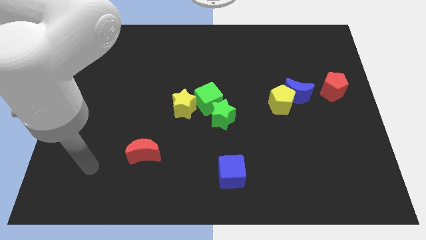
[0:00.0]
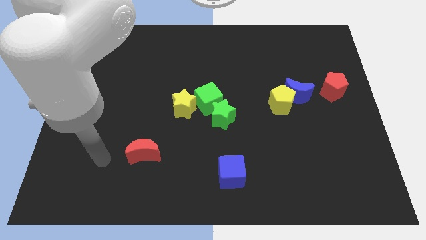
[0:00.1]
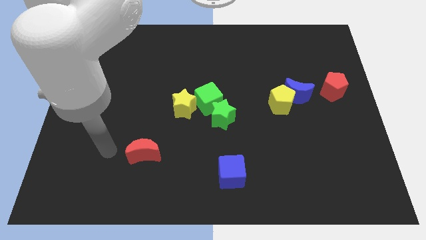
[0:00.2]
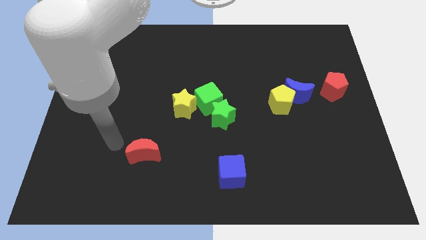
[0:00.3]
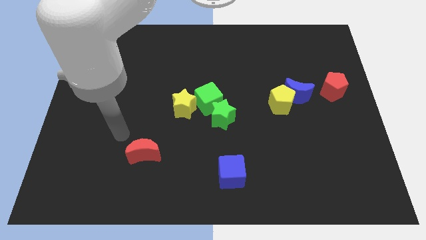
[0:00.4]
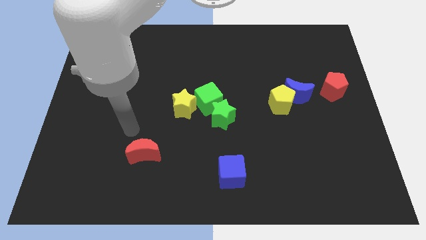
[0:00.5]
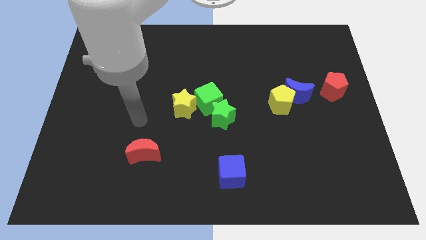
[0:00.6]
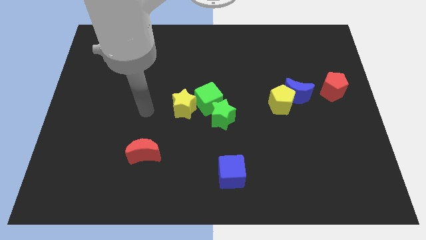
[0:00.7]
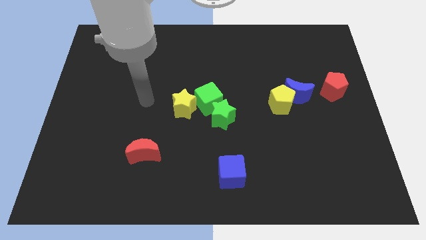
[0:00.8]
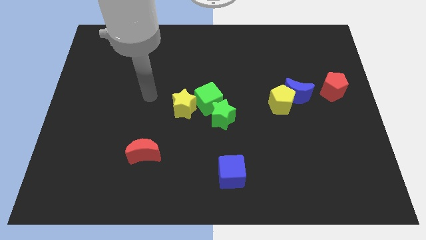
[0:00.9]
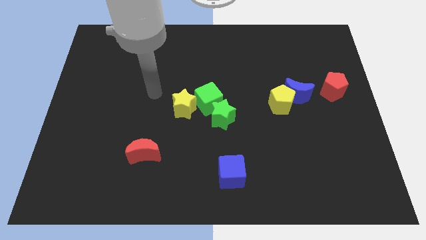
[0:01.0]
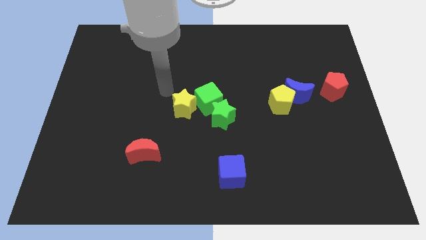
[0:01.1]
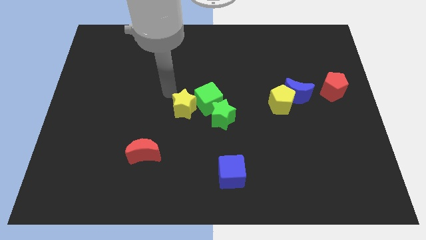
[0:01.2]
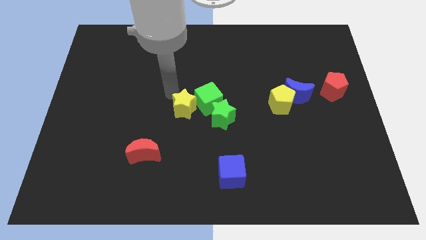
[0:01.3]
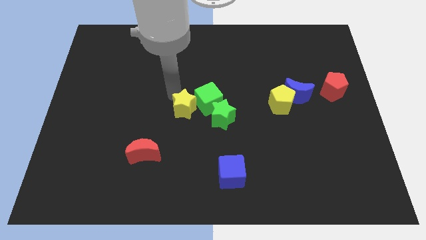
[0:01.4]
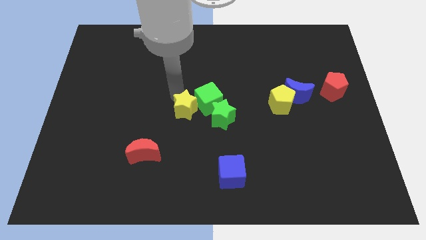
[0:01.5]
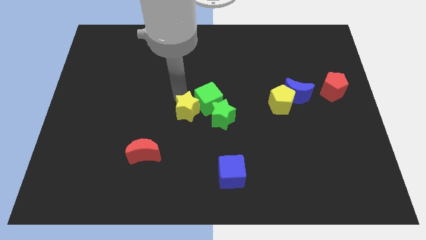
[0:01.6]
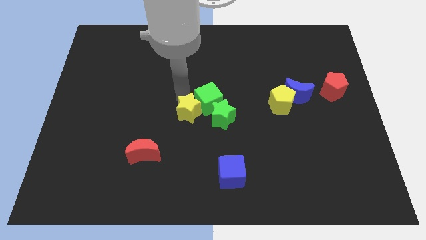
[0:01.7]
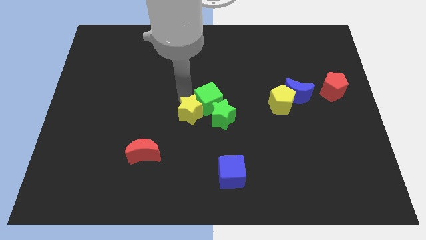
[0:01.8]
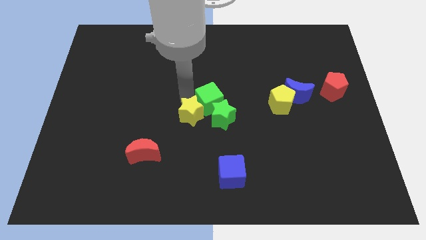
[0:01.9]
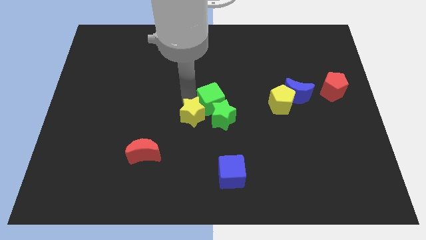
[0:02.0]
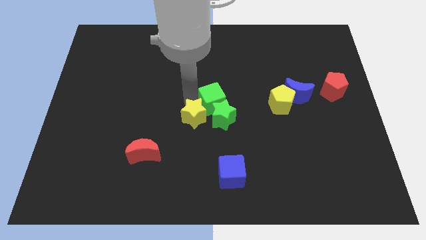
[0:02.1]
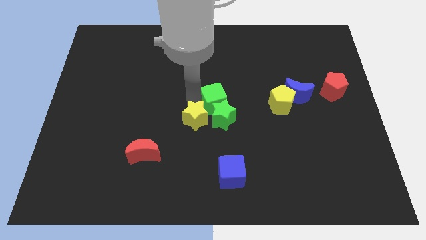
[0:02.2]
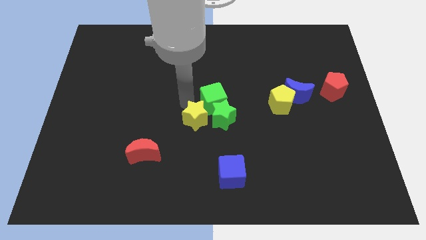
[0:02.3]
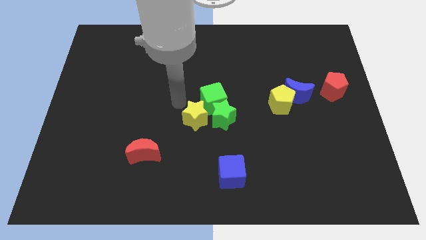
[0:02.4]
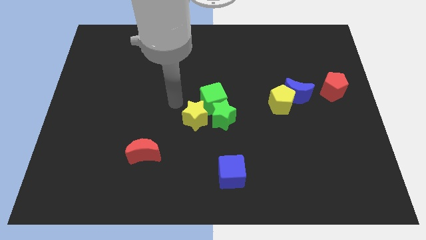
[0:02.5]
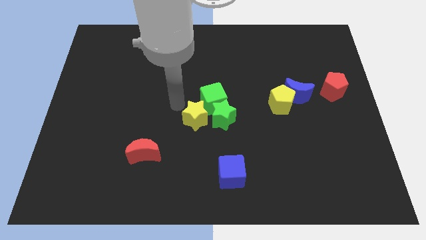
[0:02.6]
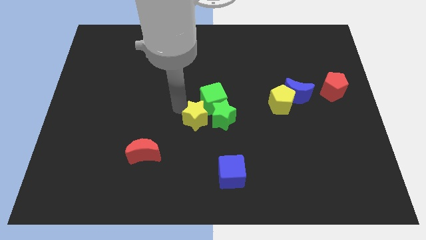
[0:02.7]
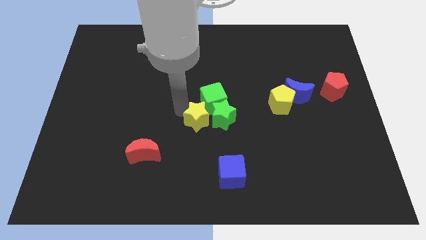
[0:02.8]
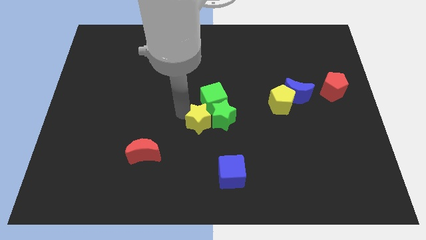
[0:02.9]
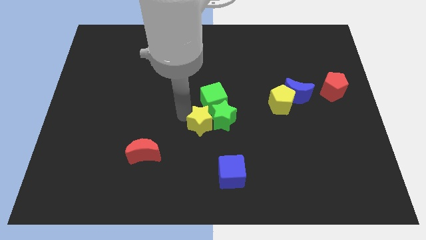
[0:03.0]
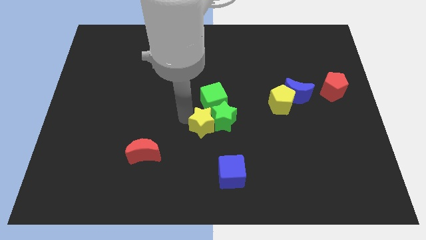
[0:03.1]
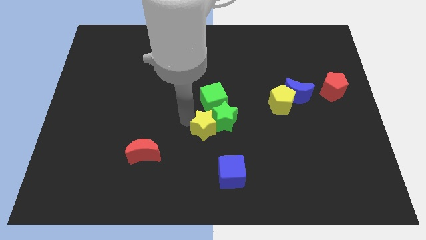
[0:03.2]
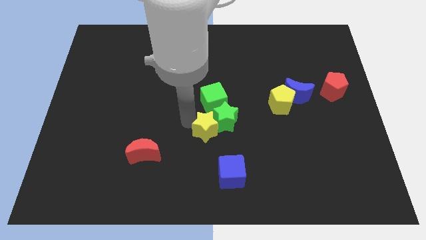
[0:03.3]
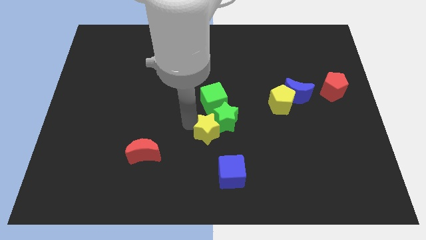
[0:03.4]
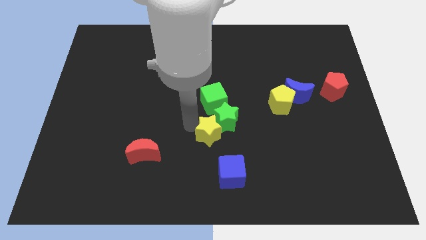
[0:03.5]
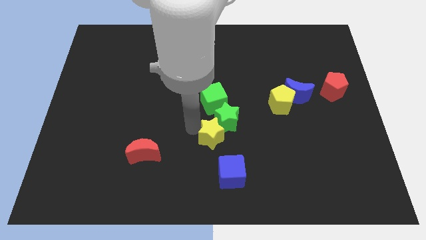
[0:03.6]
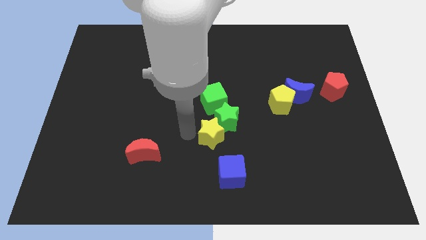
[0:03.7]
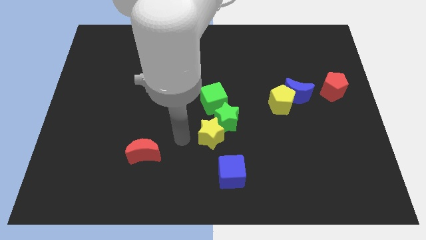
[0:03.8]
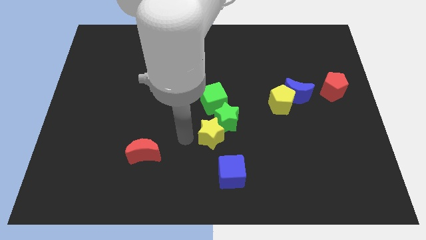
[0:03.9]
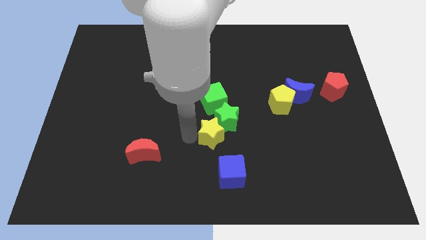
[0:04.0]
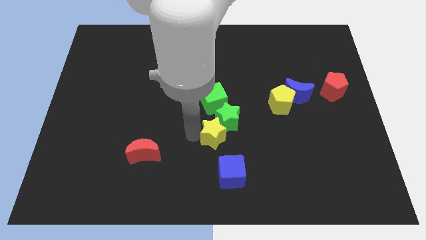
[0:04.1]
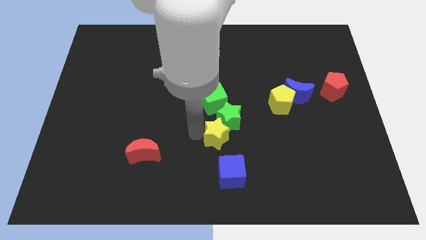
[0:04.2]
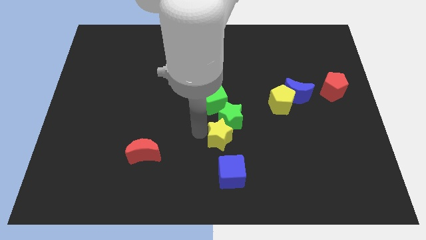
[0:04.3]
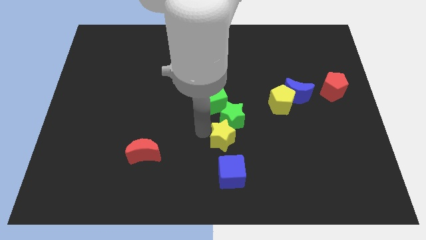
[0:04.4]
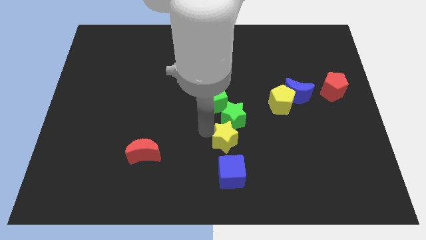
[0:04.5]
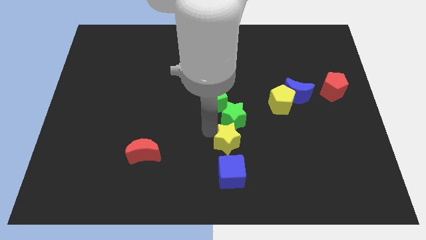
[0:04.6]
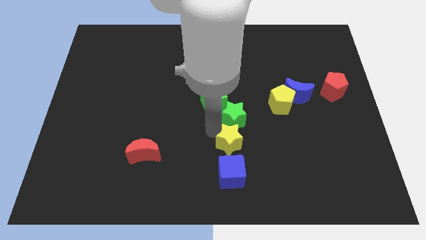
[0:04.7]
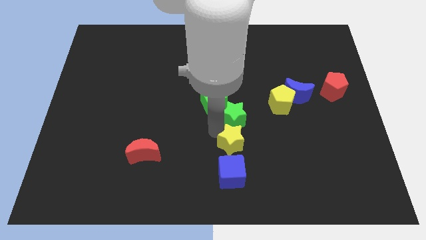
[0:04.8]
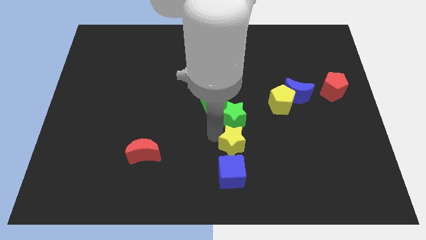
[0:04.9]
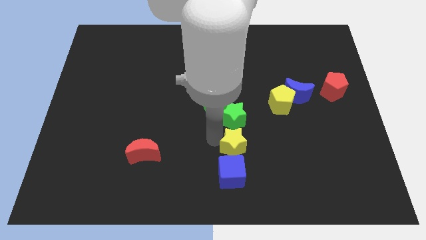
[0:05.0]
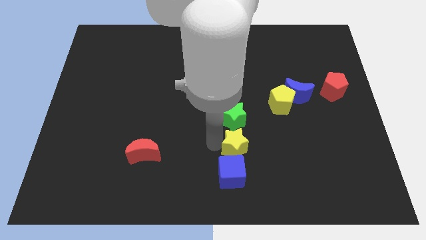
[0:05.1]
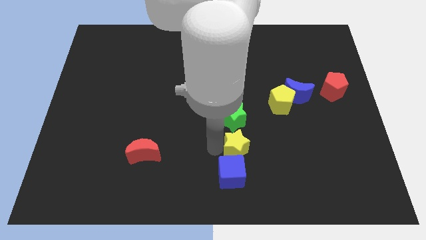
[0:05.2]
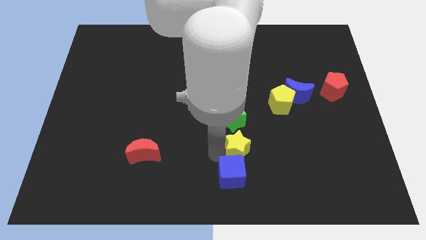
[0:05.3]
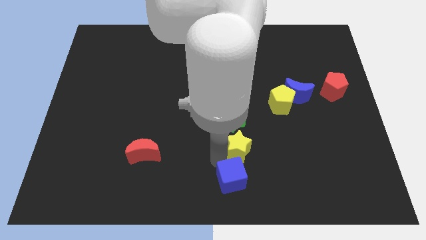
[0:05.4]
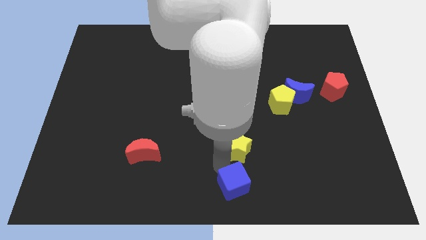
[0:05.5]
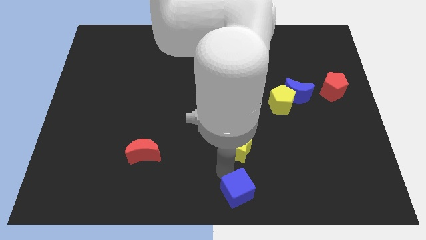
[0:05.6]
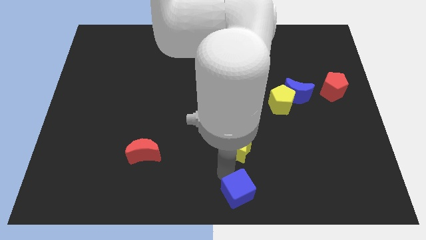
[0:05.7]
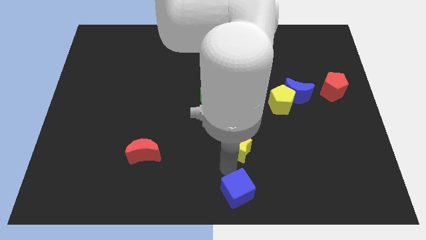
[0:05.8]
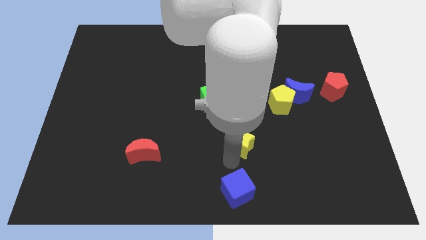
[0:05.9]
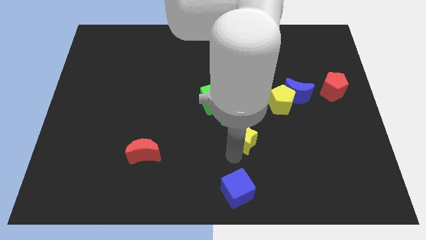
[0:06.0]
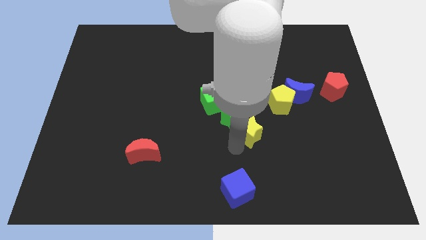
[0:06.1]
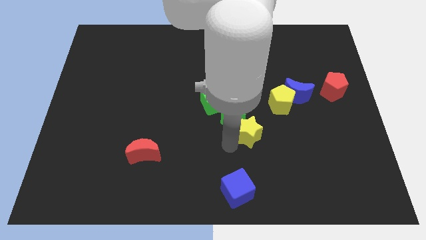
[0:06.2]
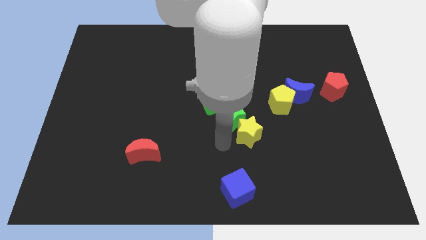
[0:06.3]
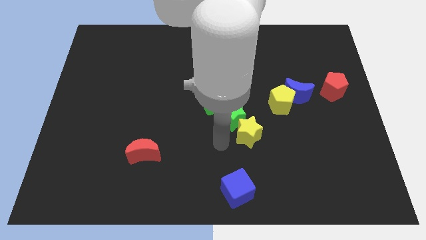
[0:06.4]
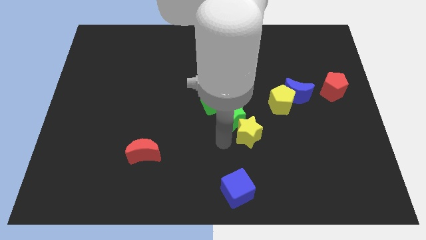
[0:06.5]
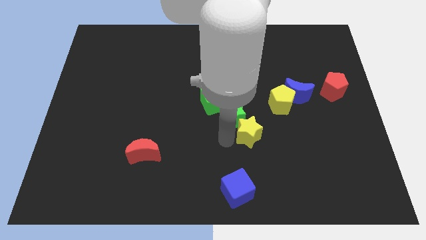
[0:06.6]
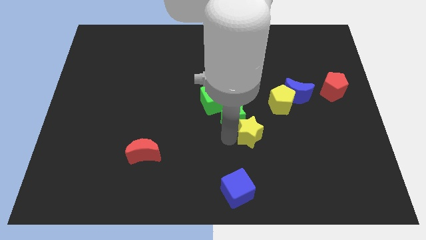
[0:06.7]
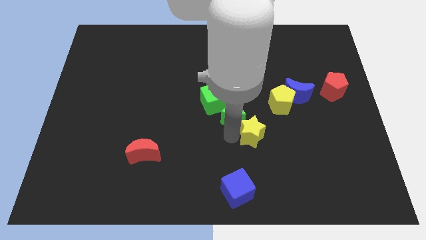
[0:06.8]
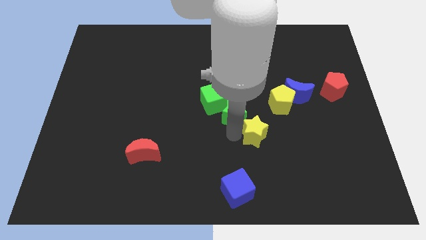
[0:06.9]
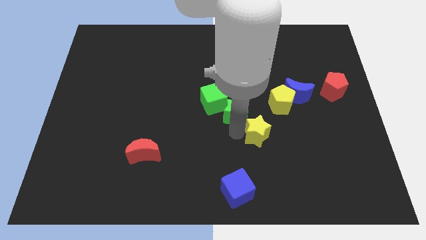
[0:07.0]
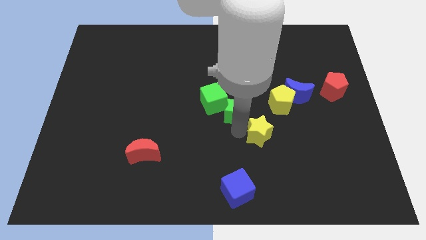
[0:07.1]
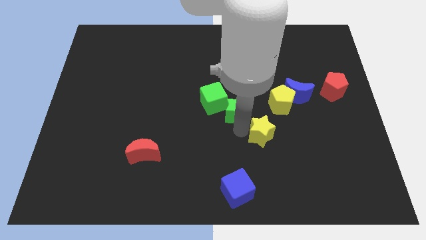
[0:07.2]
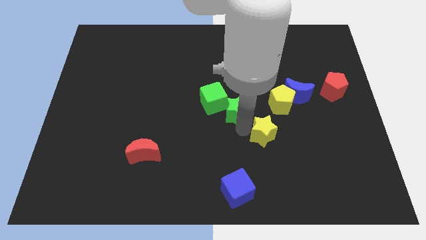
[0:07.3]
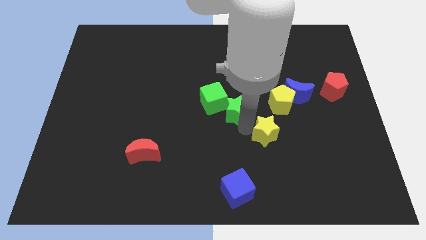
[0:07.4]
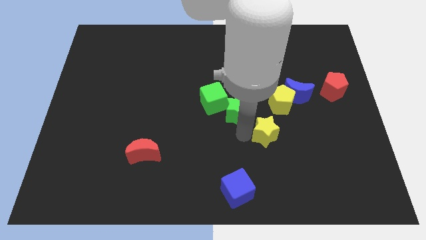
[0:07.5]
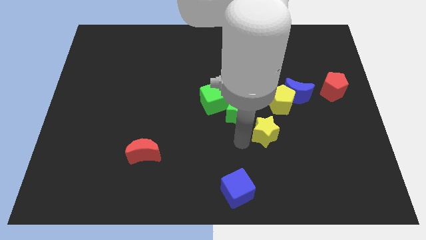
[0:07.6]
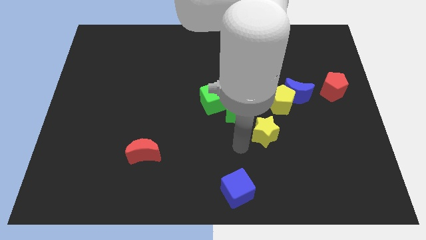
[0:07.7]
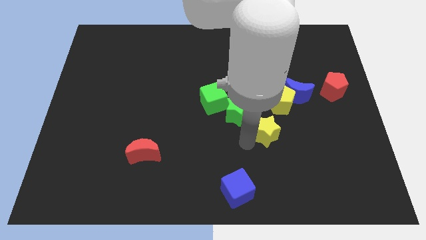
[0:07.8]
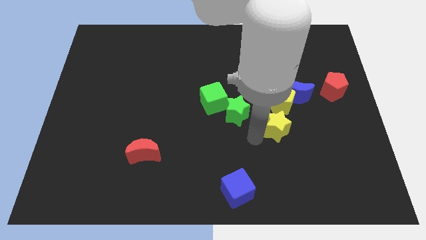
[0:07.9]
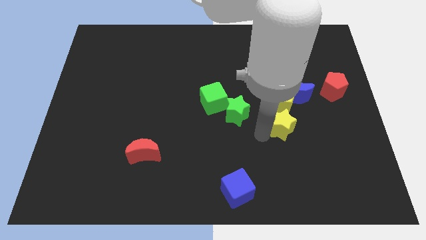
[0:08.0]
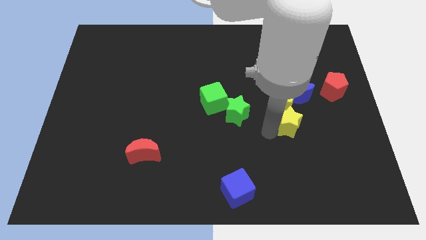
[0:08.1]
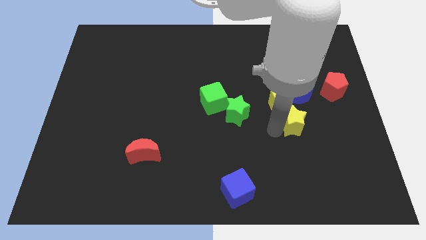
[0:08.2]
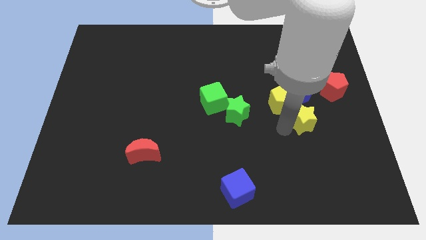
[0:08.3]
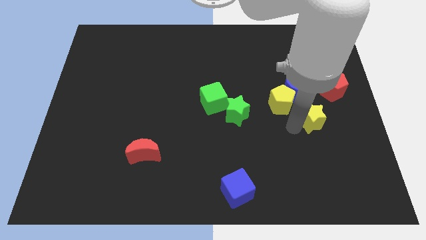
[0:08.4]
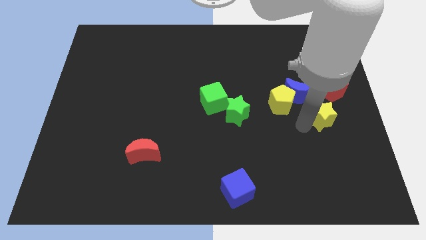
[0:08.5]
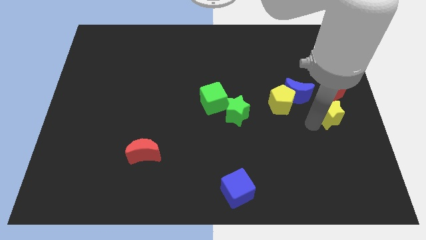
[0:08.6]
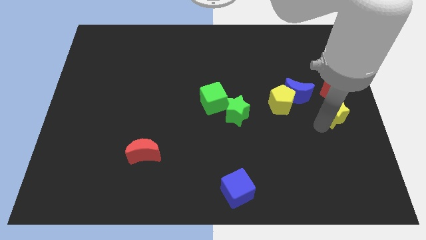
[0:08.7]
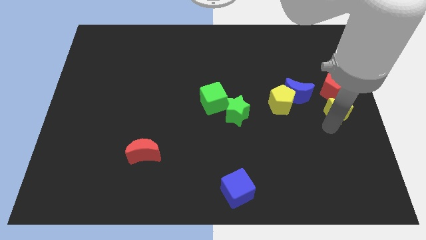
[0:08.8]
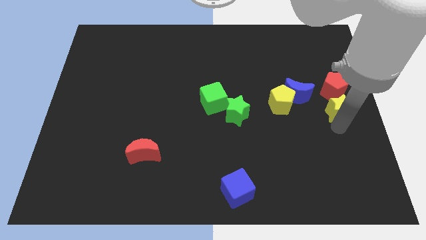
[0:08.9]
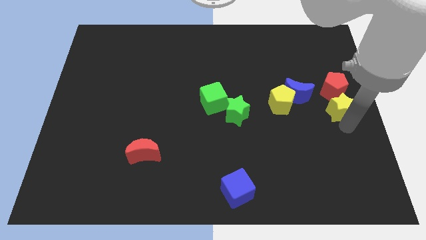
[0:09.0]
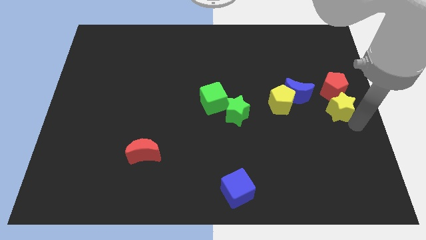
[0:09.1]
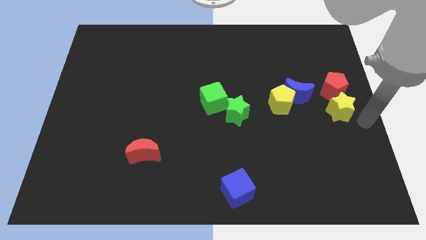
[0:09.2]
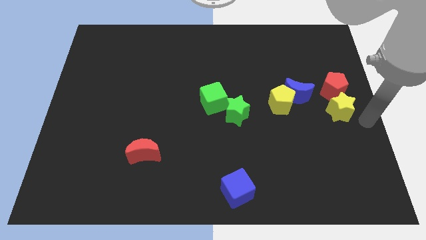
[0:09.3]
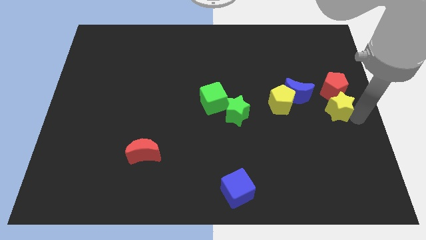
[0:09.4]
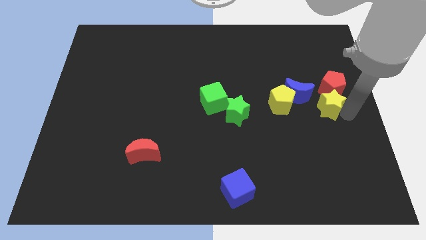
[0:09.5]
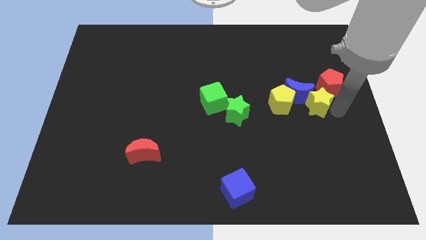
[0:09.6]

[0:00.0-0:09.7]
slide the yellow star towards the blue moon
